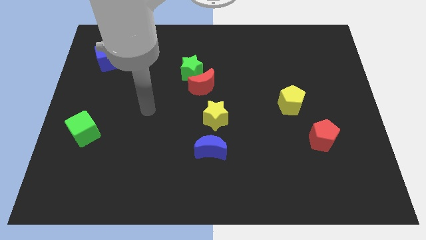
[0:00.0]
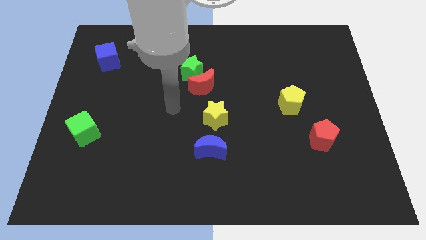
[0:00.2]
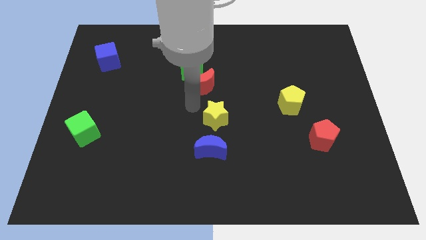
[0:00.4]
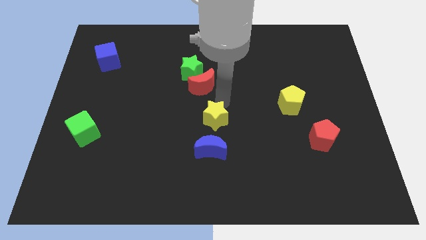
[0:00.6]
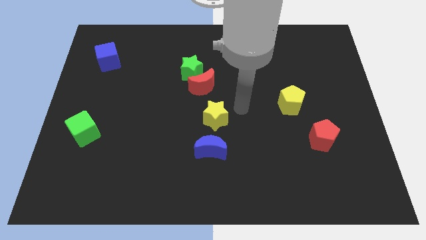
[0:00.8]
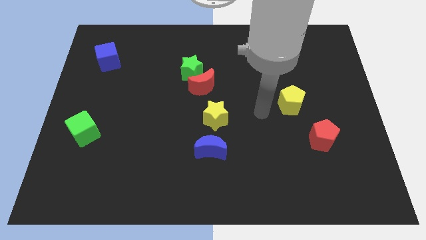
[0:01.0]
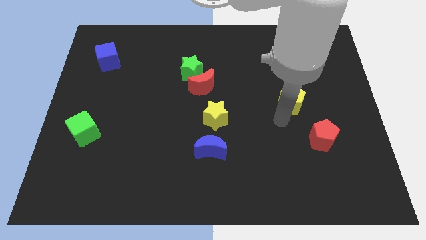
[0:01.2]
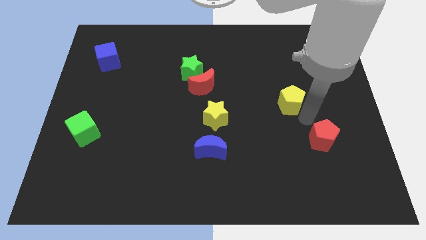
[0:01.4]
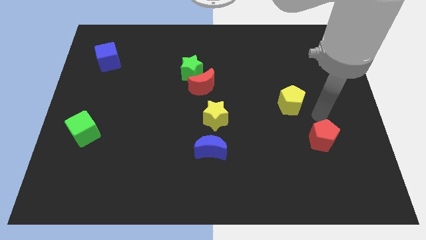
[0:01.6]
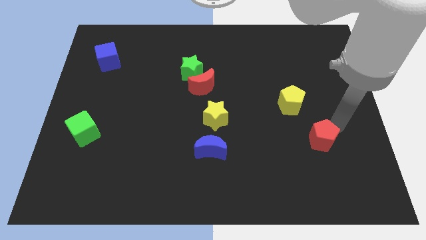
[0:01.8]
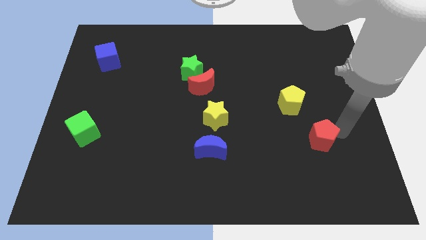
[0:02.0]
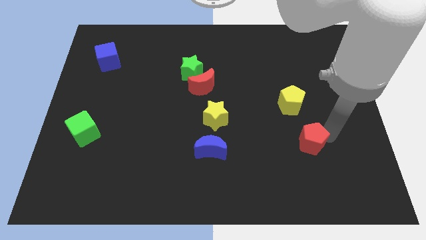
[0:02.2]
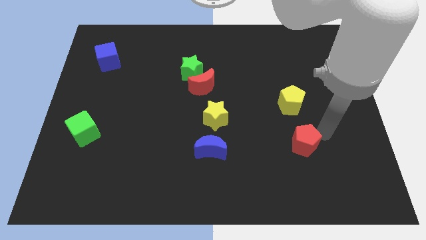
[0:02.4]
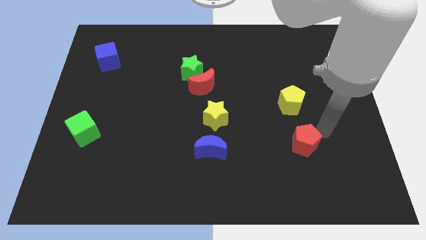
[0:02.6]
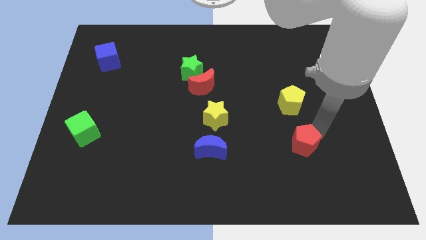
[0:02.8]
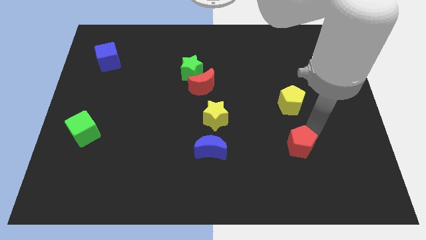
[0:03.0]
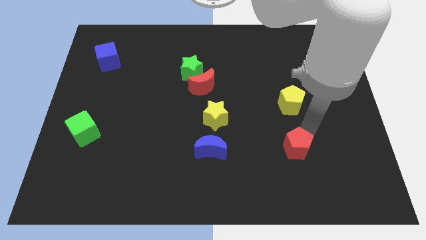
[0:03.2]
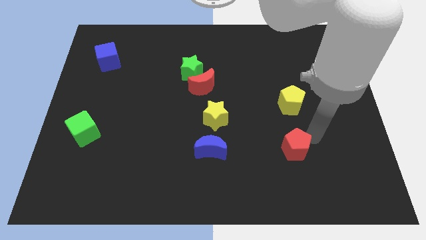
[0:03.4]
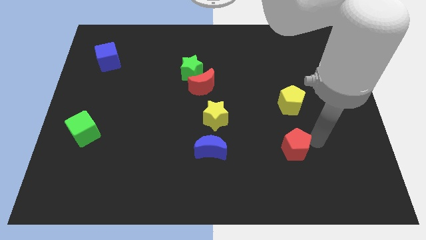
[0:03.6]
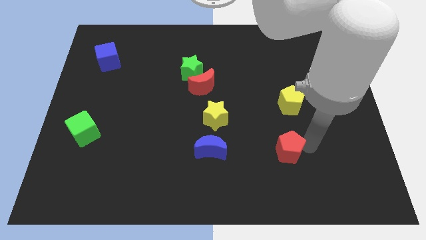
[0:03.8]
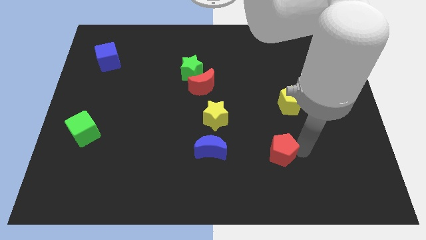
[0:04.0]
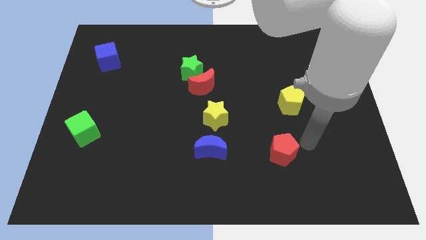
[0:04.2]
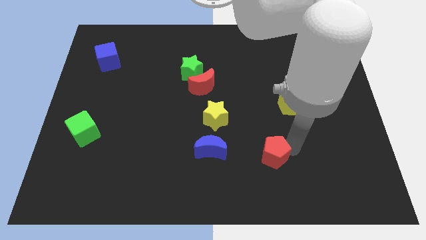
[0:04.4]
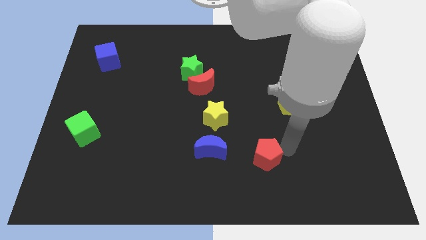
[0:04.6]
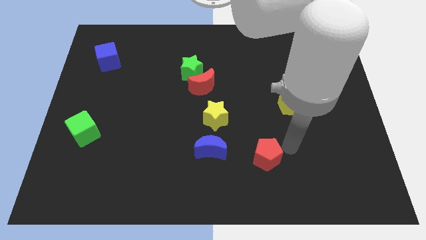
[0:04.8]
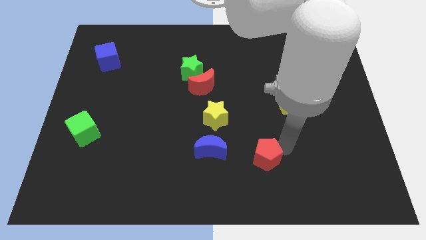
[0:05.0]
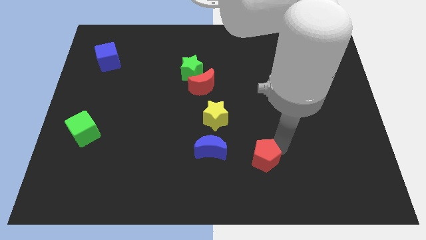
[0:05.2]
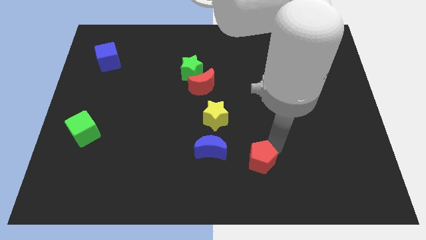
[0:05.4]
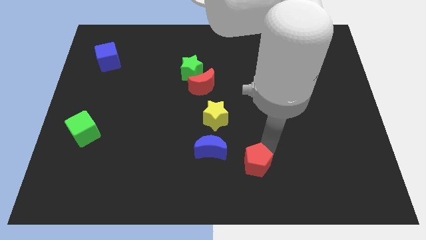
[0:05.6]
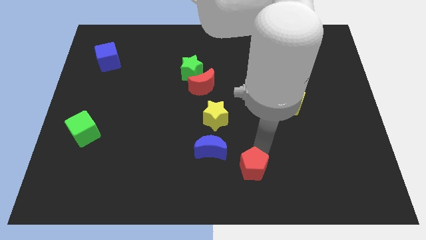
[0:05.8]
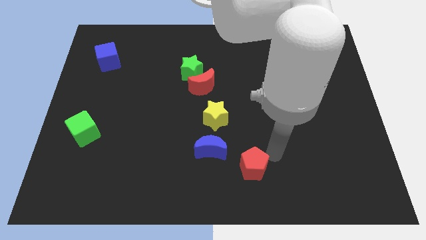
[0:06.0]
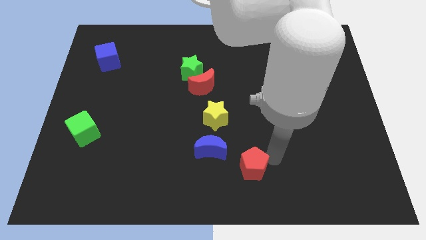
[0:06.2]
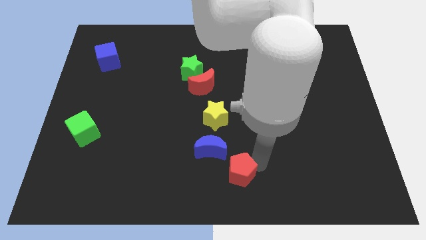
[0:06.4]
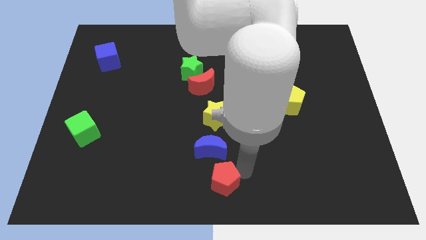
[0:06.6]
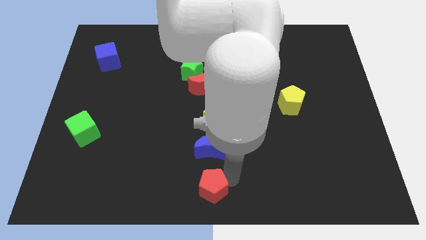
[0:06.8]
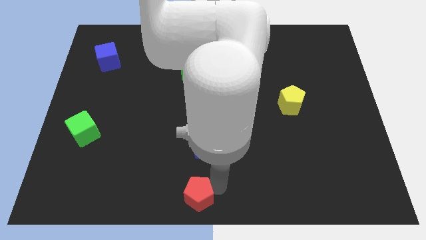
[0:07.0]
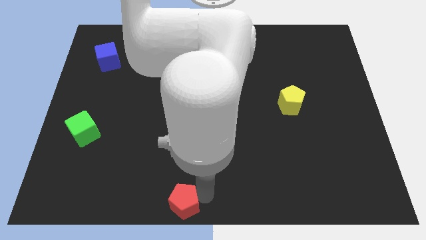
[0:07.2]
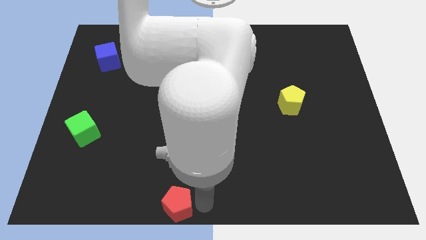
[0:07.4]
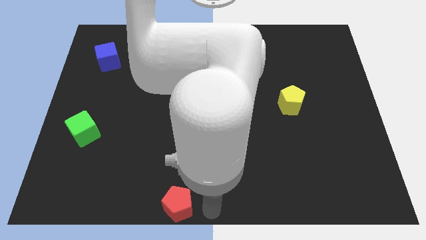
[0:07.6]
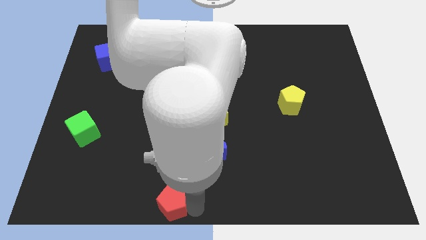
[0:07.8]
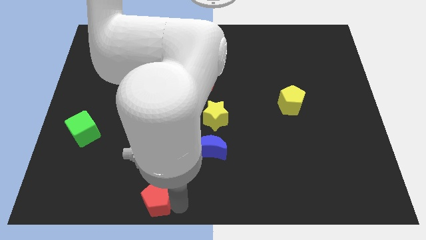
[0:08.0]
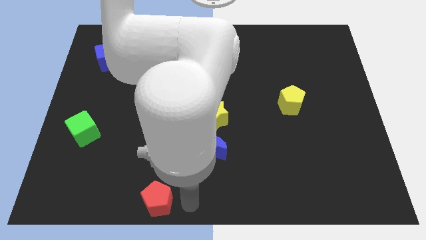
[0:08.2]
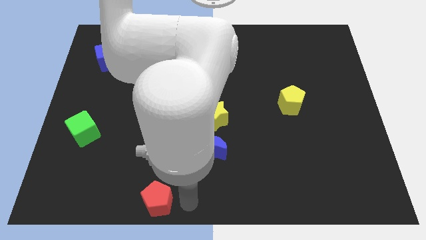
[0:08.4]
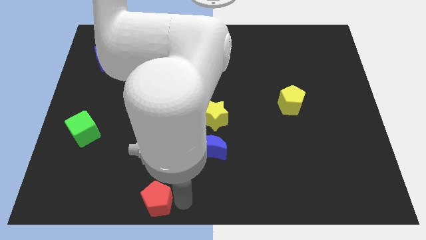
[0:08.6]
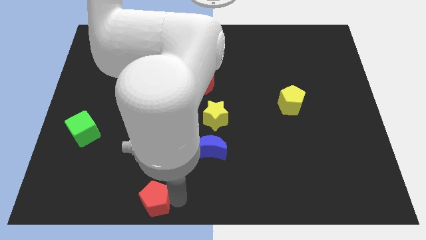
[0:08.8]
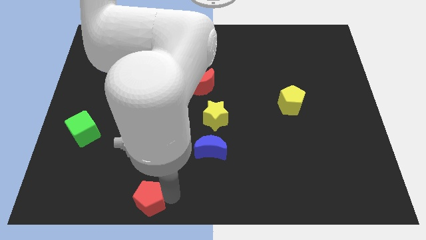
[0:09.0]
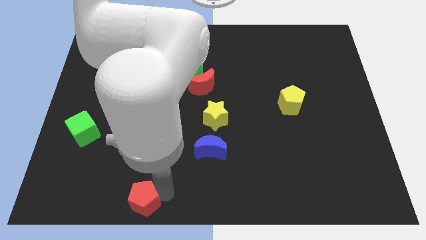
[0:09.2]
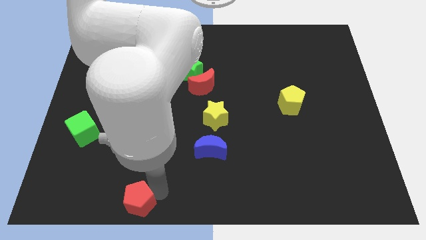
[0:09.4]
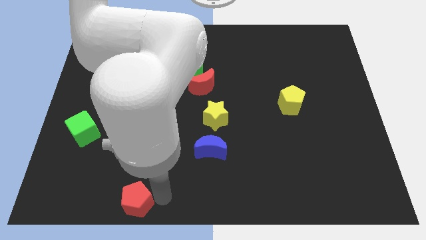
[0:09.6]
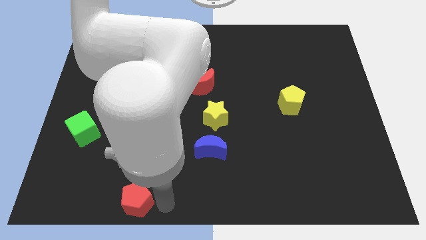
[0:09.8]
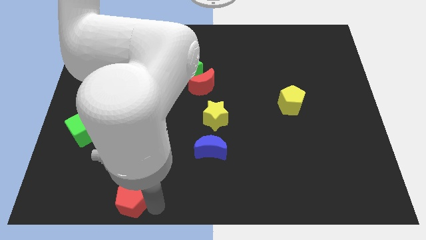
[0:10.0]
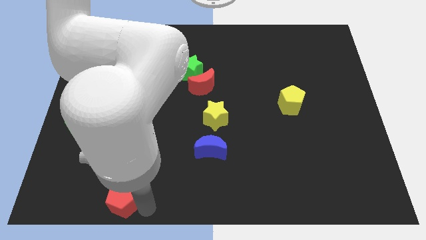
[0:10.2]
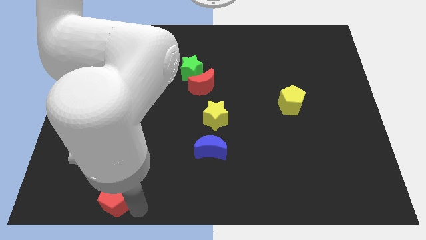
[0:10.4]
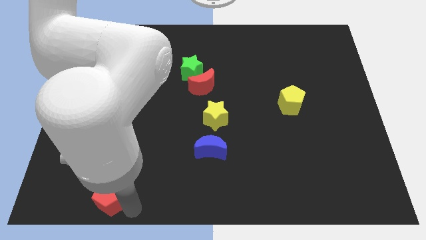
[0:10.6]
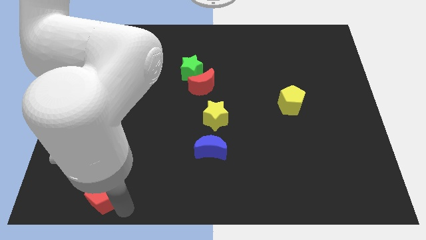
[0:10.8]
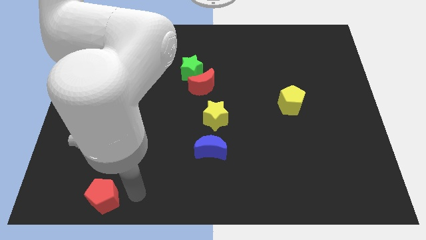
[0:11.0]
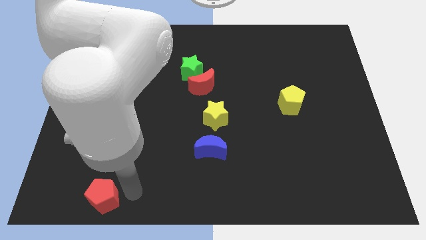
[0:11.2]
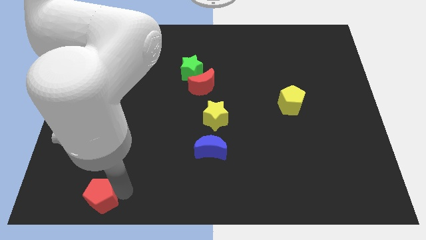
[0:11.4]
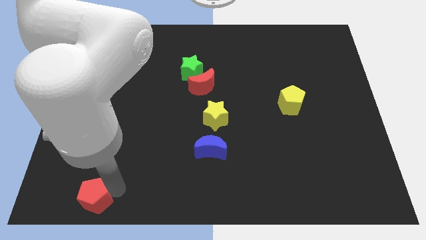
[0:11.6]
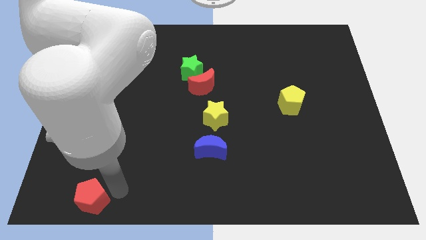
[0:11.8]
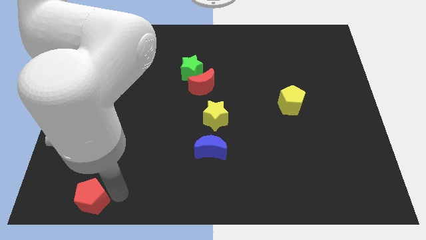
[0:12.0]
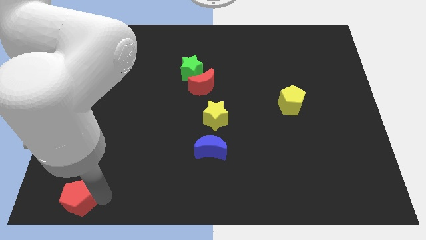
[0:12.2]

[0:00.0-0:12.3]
move the red pentagon to the bottom left corner
